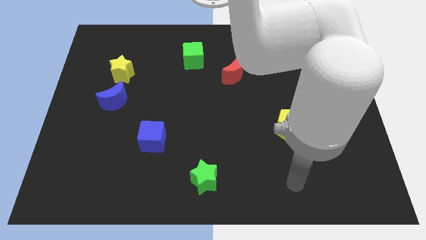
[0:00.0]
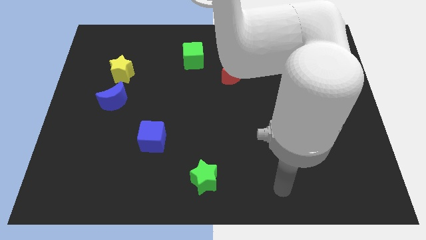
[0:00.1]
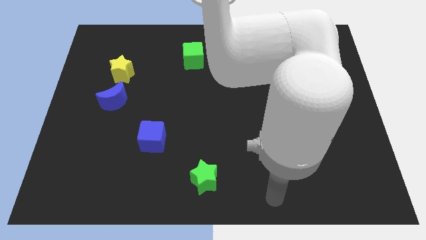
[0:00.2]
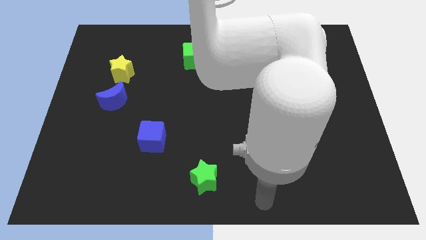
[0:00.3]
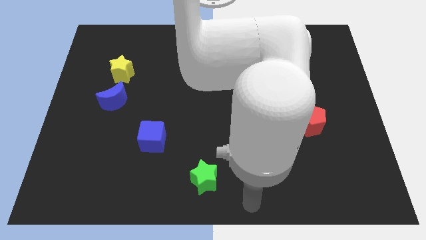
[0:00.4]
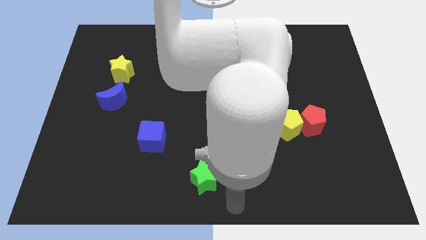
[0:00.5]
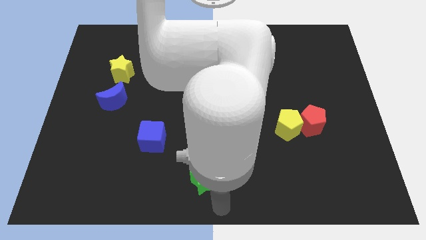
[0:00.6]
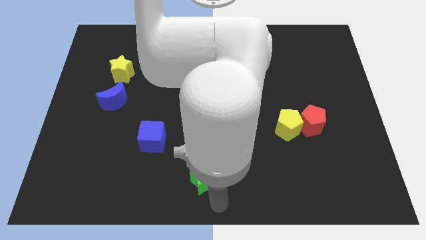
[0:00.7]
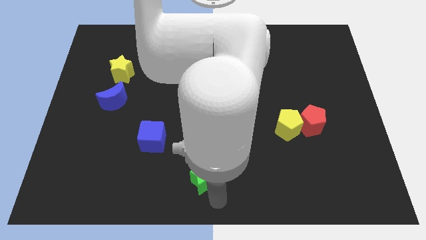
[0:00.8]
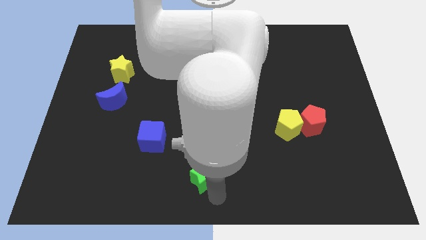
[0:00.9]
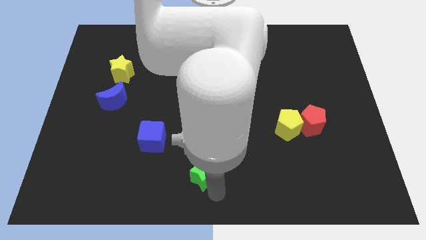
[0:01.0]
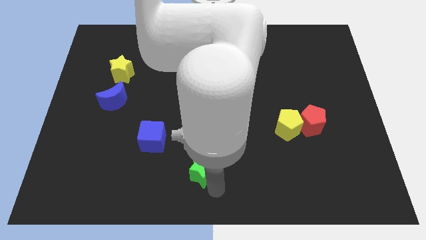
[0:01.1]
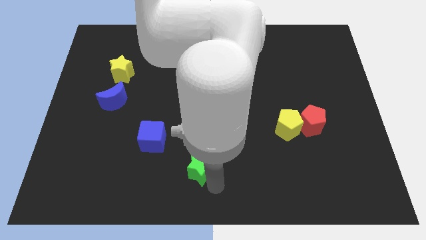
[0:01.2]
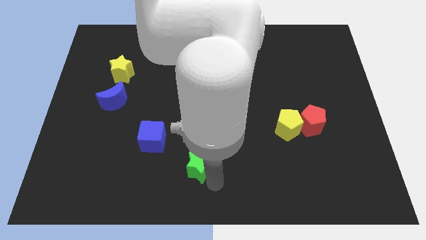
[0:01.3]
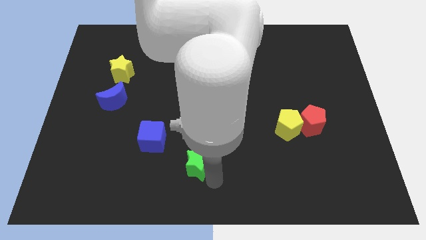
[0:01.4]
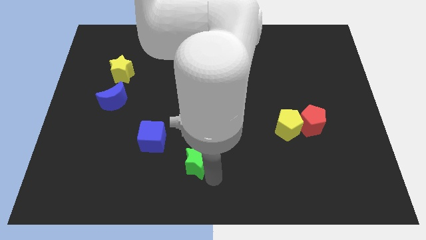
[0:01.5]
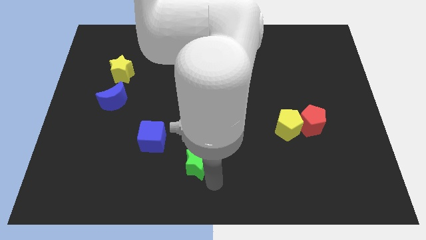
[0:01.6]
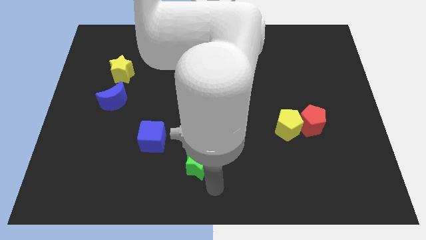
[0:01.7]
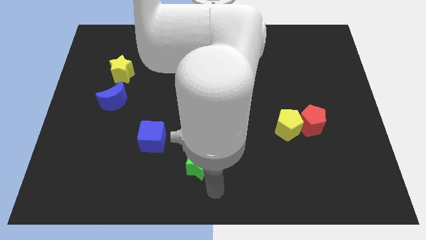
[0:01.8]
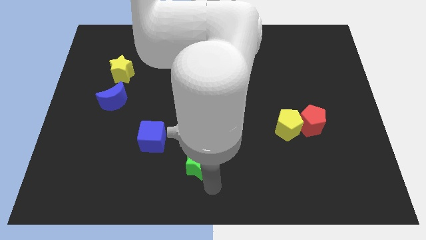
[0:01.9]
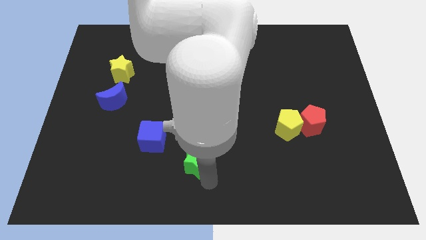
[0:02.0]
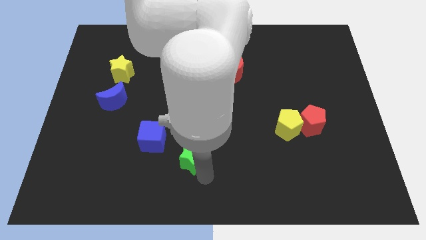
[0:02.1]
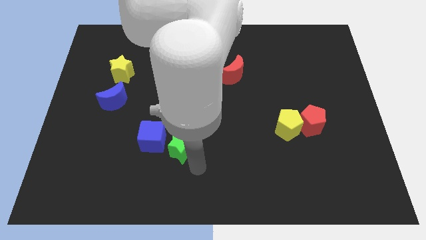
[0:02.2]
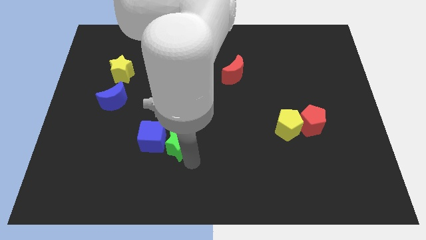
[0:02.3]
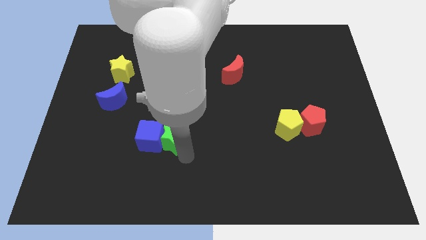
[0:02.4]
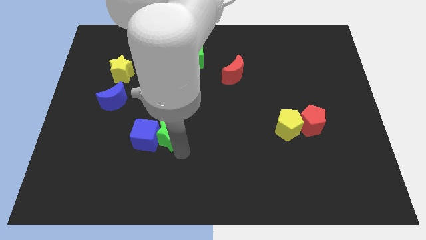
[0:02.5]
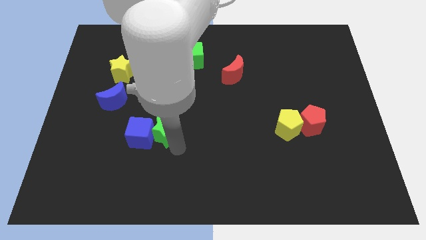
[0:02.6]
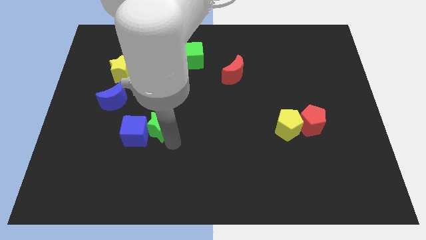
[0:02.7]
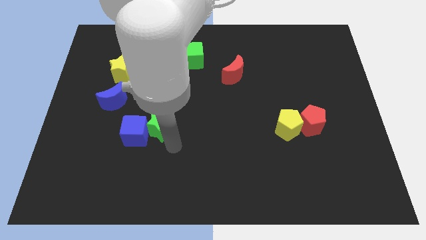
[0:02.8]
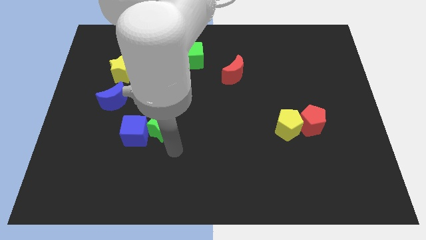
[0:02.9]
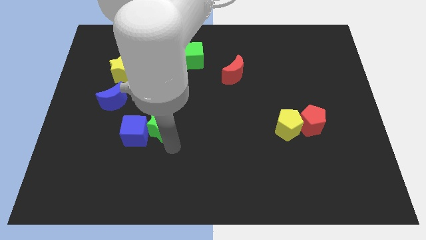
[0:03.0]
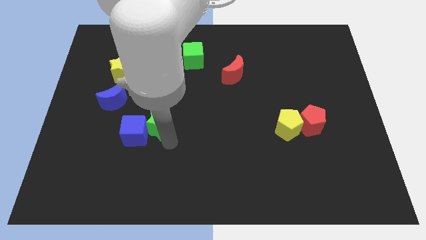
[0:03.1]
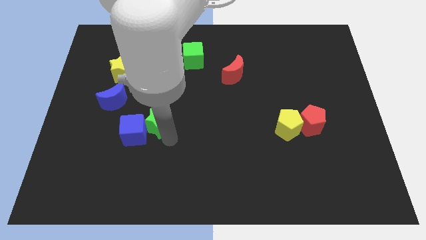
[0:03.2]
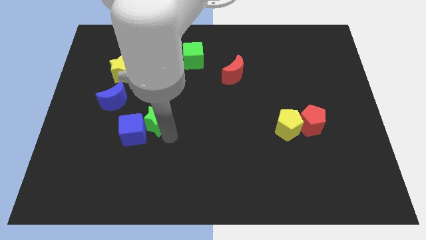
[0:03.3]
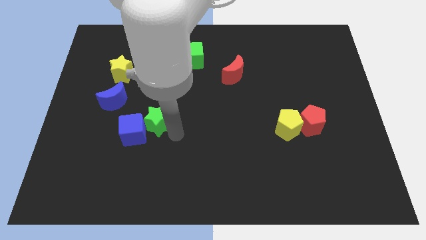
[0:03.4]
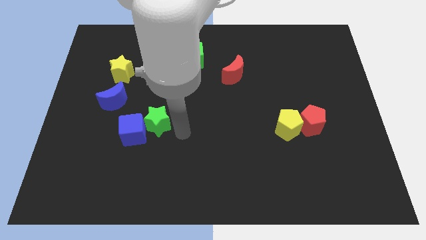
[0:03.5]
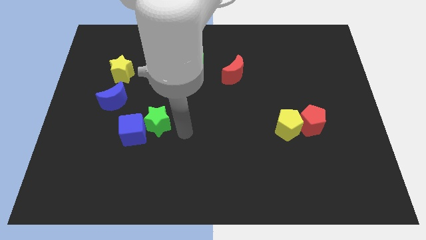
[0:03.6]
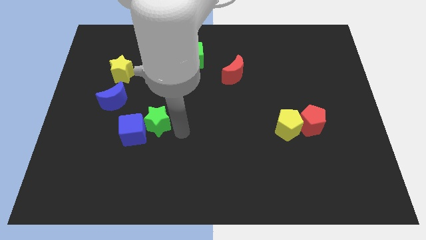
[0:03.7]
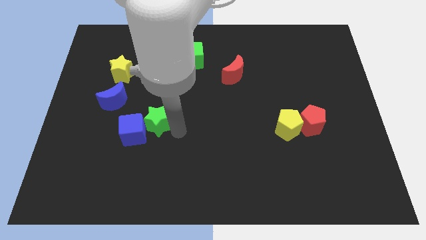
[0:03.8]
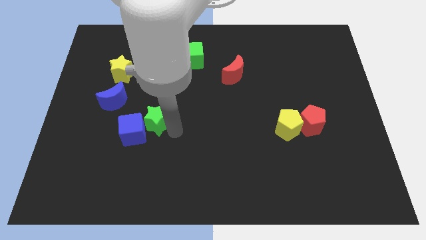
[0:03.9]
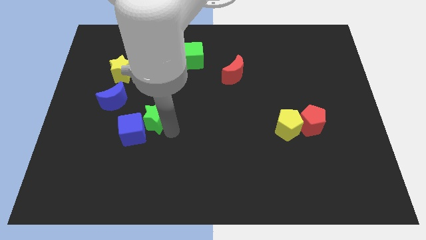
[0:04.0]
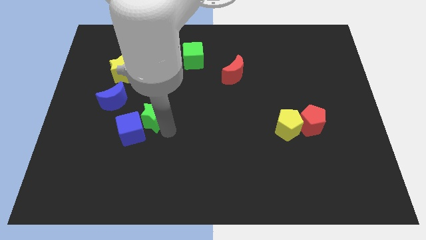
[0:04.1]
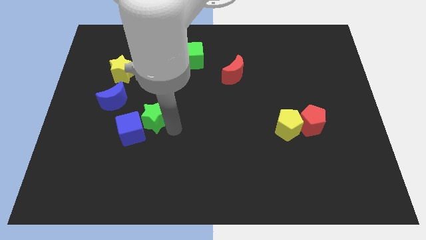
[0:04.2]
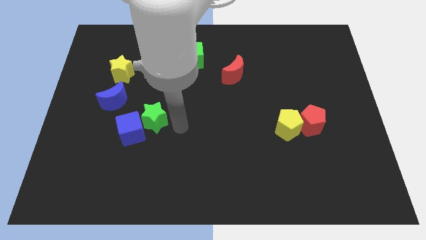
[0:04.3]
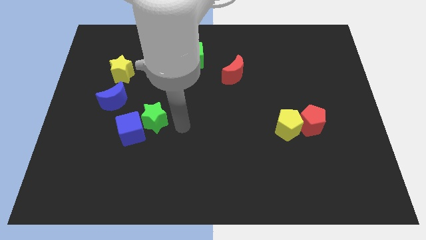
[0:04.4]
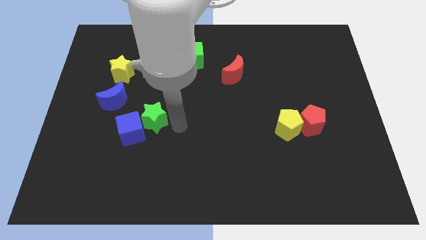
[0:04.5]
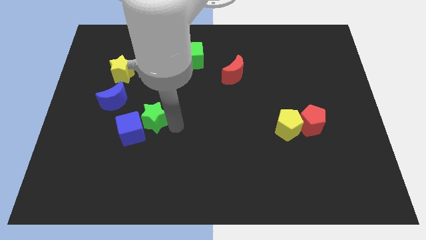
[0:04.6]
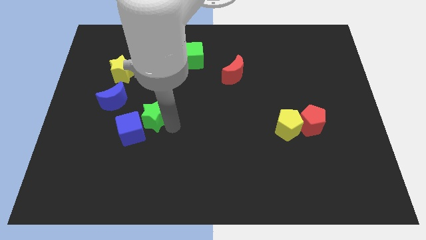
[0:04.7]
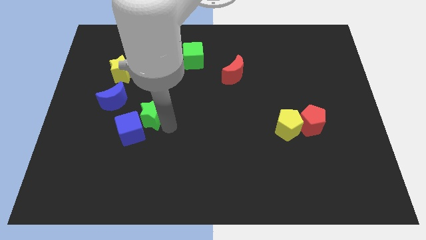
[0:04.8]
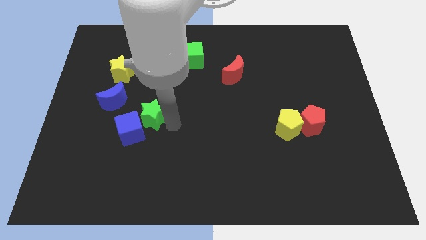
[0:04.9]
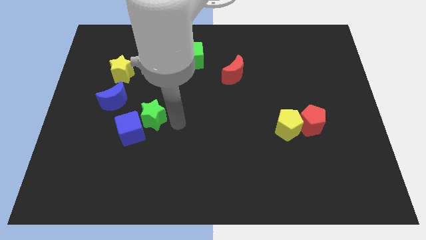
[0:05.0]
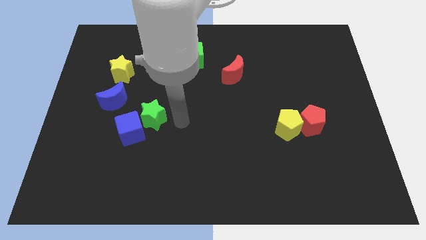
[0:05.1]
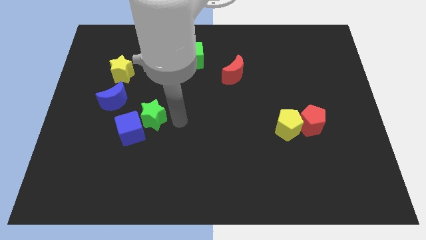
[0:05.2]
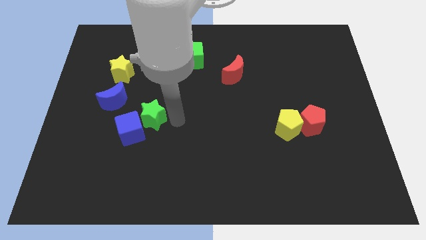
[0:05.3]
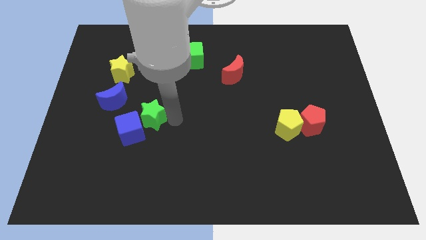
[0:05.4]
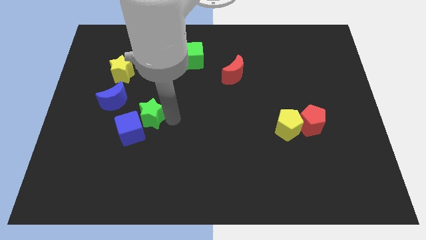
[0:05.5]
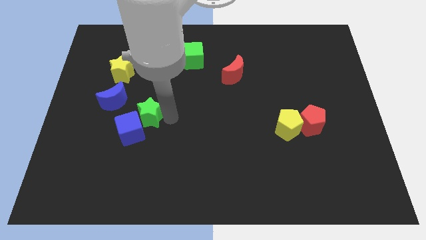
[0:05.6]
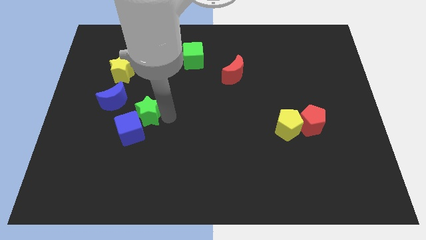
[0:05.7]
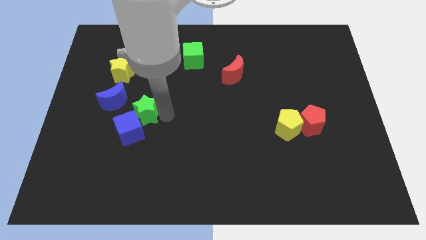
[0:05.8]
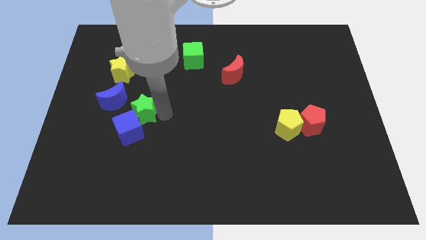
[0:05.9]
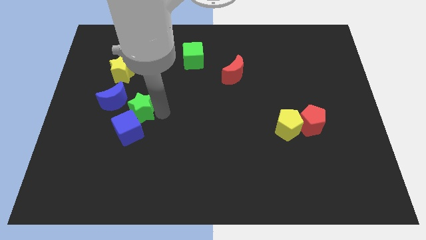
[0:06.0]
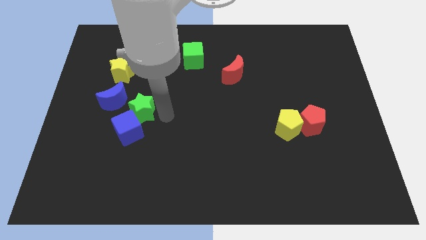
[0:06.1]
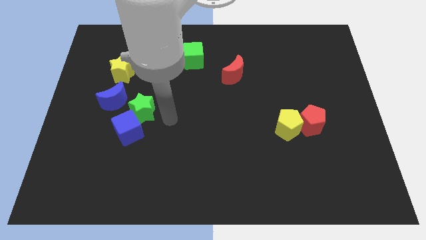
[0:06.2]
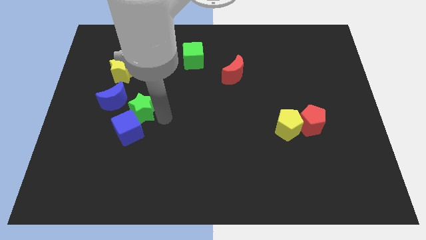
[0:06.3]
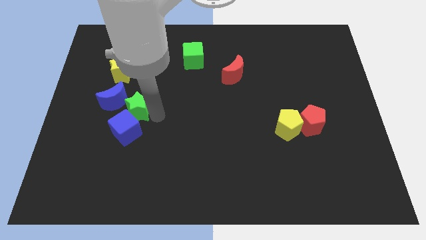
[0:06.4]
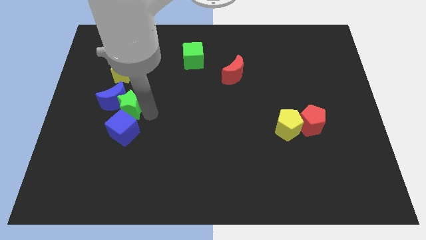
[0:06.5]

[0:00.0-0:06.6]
slide the green star to the bottom of the yellow star
